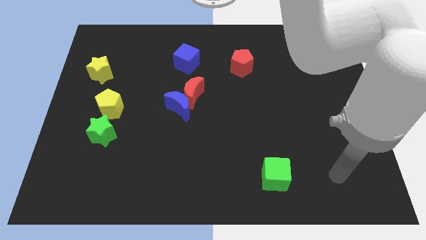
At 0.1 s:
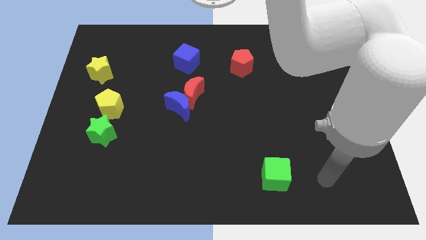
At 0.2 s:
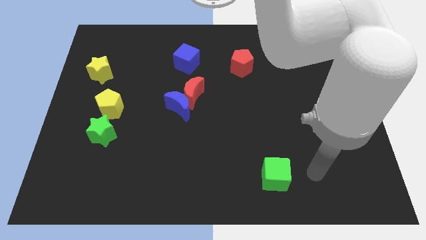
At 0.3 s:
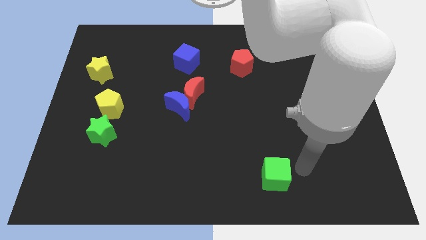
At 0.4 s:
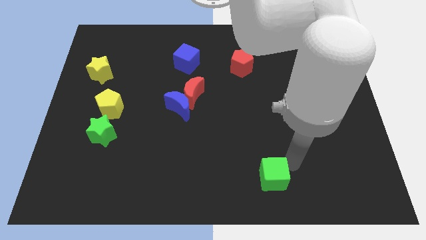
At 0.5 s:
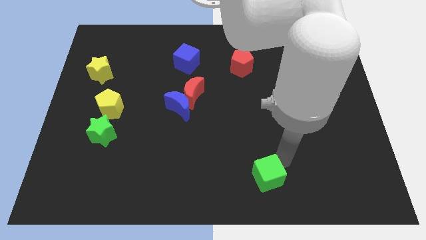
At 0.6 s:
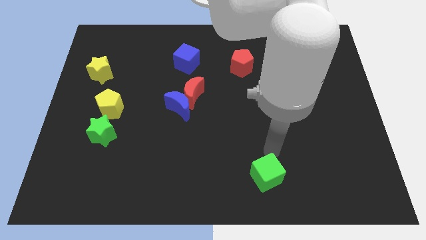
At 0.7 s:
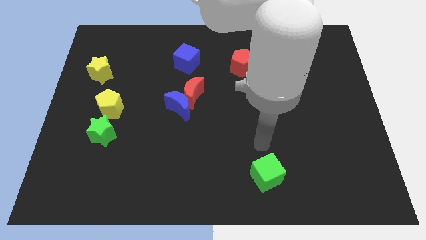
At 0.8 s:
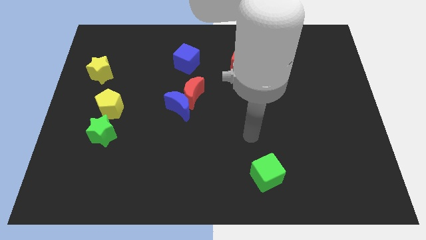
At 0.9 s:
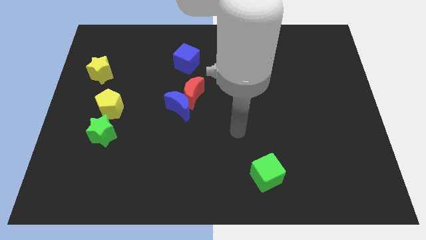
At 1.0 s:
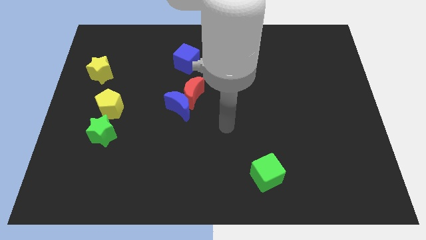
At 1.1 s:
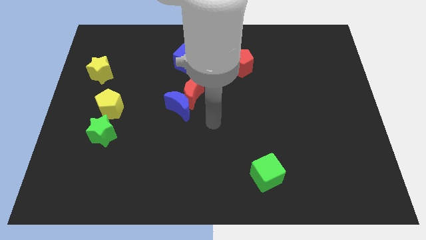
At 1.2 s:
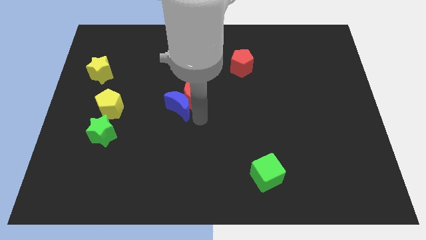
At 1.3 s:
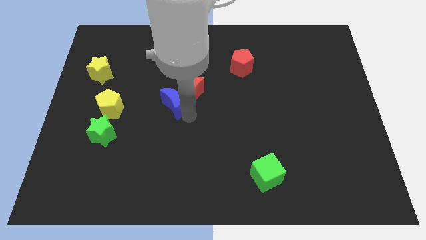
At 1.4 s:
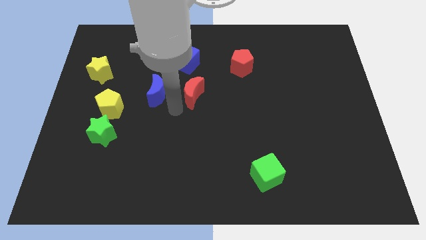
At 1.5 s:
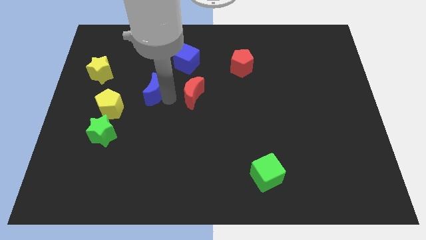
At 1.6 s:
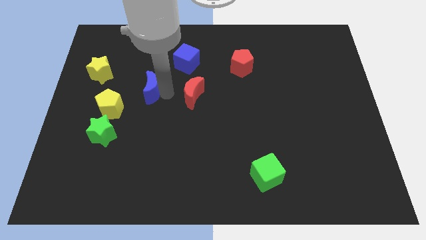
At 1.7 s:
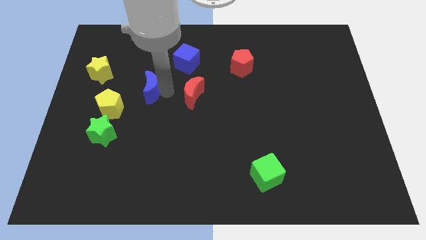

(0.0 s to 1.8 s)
pull the red moon apart from the blue moon

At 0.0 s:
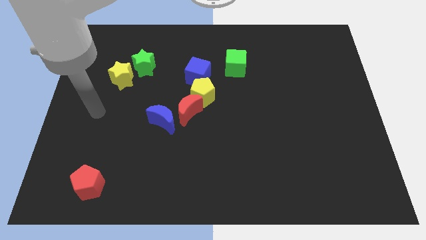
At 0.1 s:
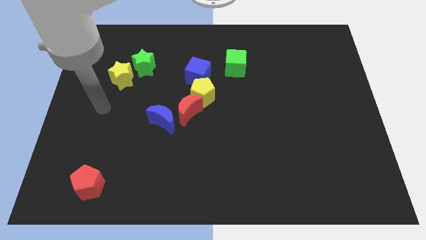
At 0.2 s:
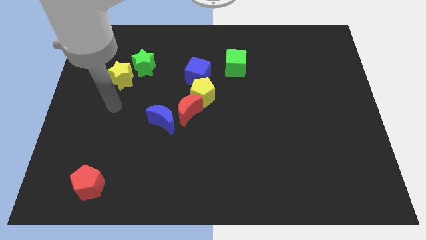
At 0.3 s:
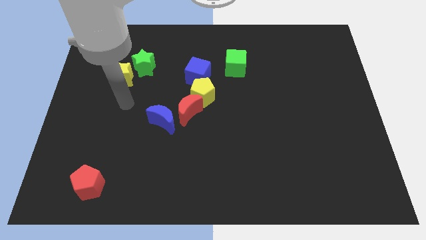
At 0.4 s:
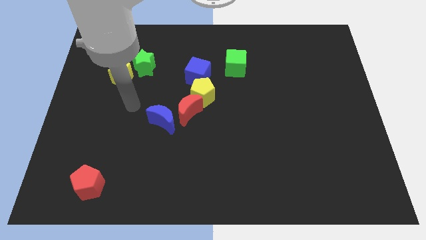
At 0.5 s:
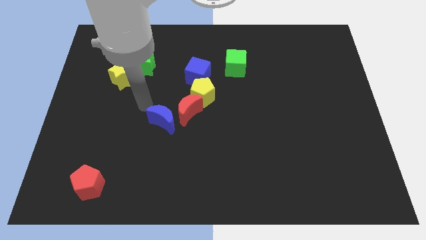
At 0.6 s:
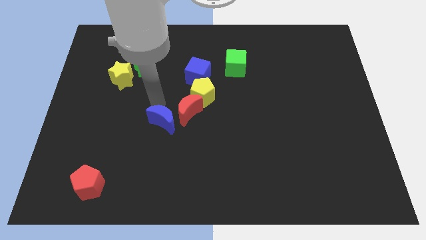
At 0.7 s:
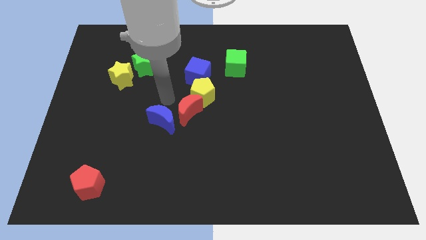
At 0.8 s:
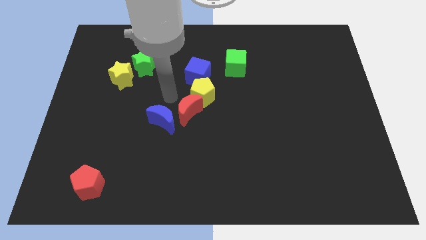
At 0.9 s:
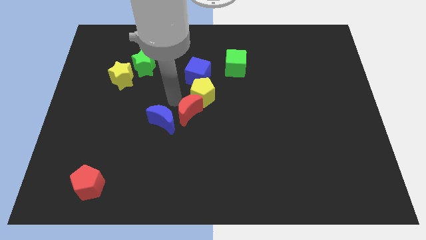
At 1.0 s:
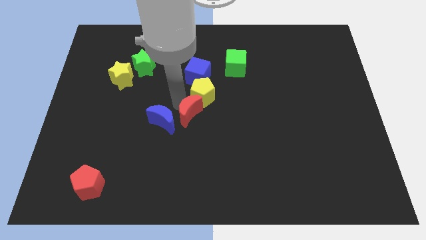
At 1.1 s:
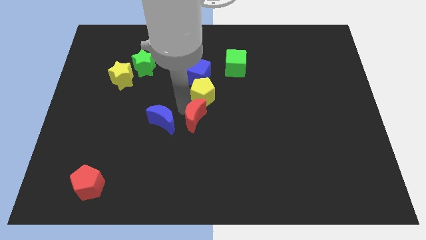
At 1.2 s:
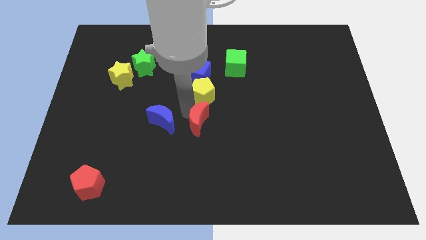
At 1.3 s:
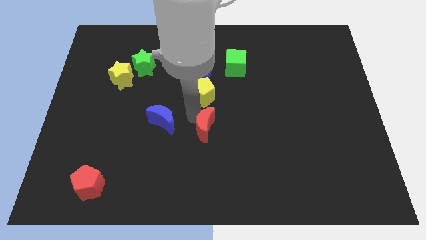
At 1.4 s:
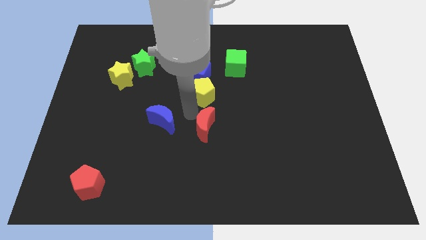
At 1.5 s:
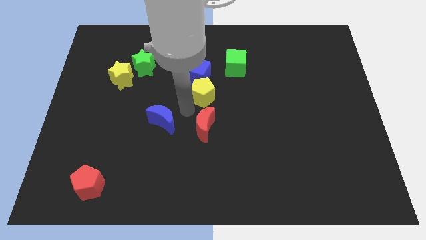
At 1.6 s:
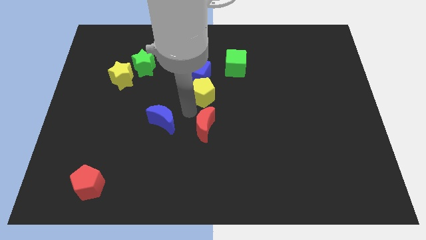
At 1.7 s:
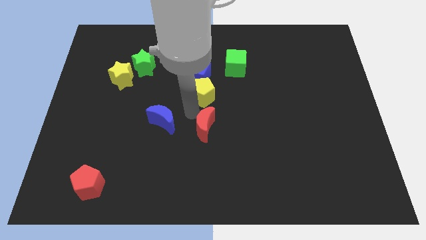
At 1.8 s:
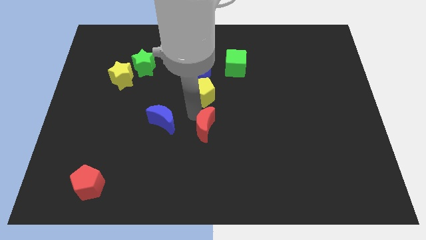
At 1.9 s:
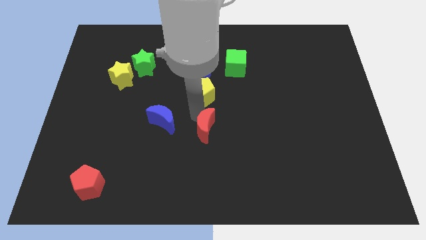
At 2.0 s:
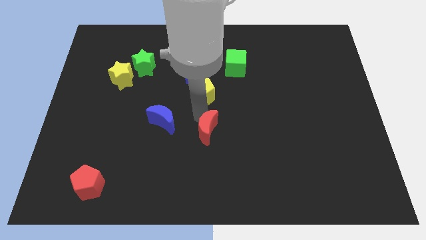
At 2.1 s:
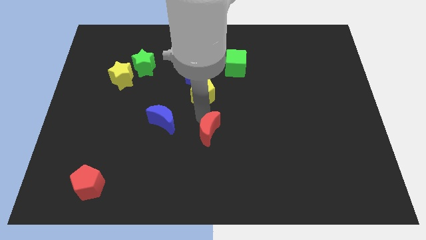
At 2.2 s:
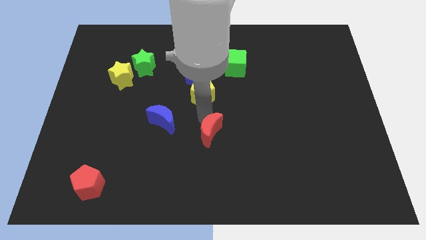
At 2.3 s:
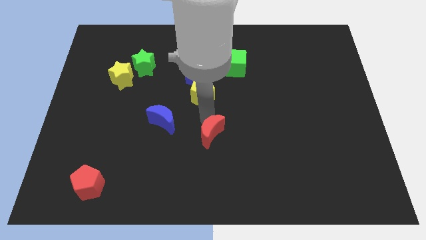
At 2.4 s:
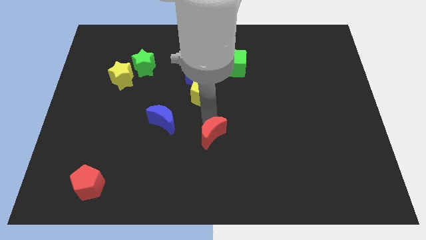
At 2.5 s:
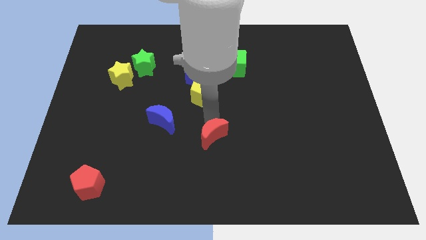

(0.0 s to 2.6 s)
pull the red moon apart from the yellow pentagon and blue moon

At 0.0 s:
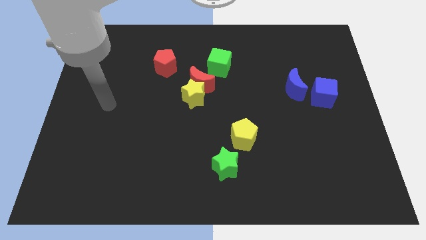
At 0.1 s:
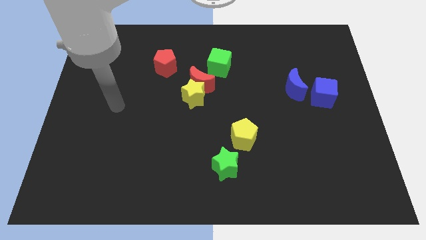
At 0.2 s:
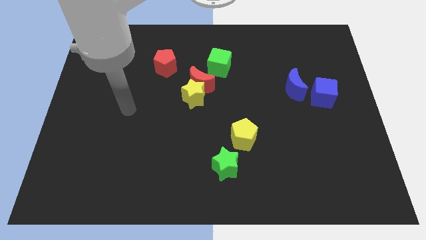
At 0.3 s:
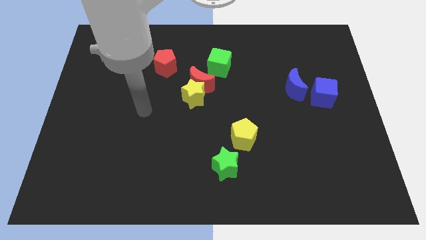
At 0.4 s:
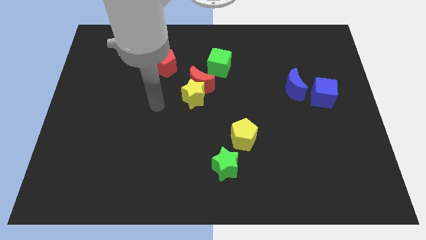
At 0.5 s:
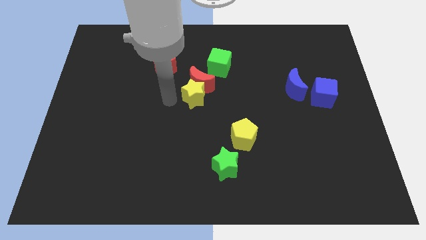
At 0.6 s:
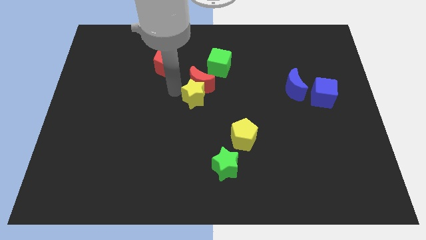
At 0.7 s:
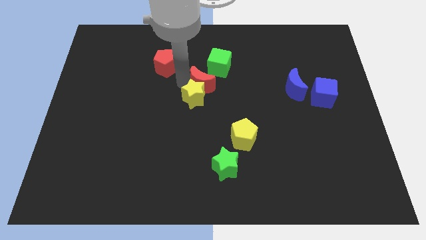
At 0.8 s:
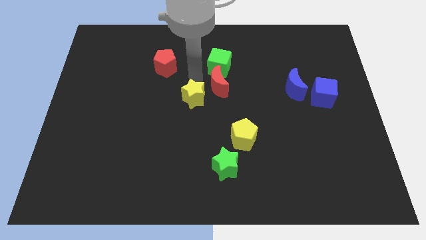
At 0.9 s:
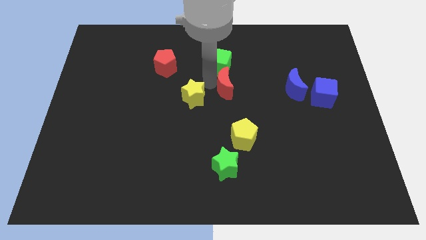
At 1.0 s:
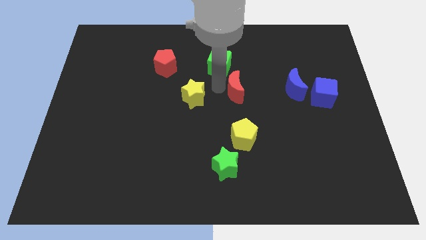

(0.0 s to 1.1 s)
pull the yellow star apart from the red moon

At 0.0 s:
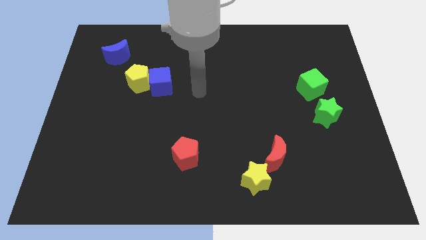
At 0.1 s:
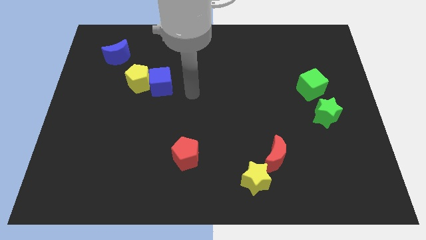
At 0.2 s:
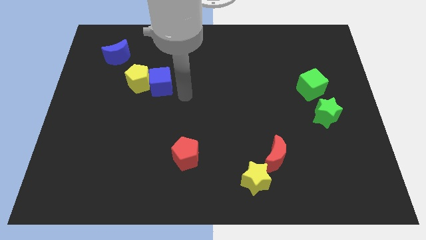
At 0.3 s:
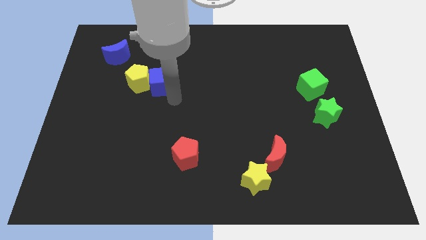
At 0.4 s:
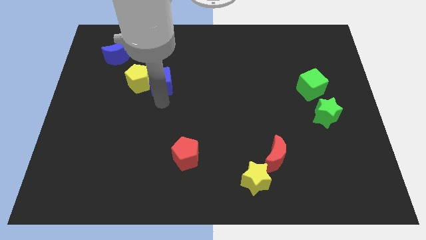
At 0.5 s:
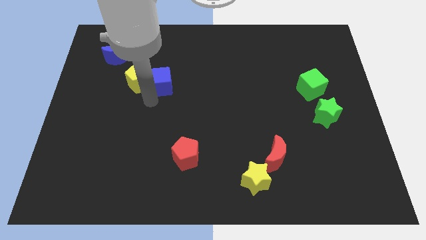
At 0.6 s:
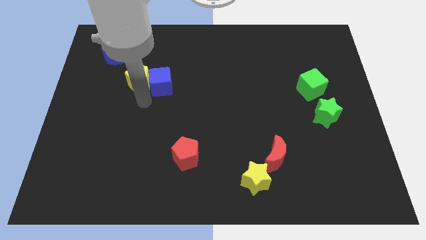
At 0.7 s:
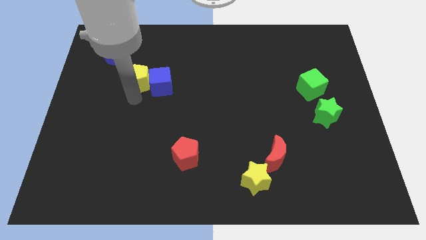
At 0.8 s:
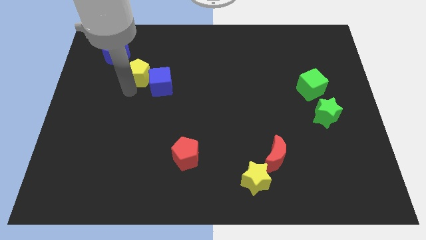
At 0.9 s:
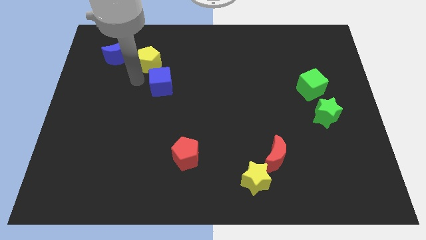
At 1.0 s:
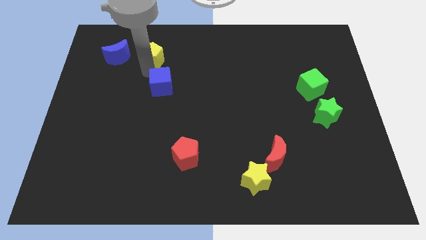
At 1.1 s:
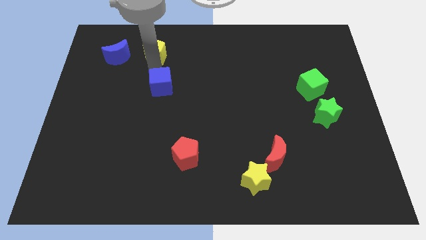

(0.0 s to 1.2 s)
separate the blue cube from the yellow pentagon

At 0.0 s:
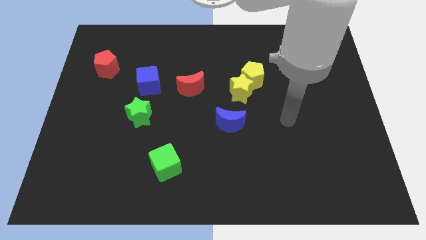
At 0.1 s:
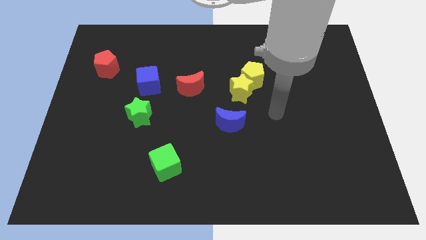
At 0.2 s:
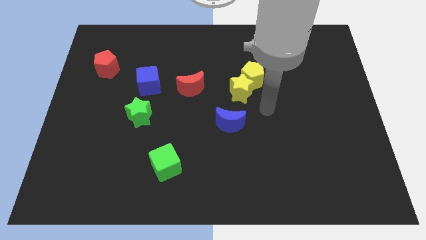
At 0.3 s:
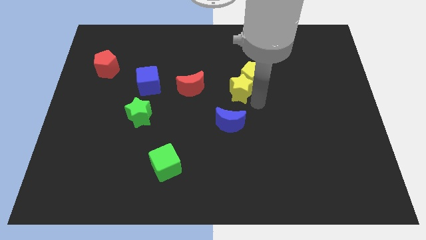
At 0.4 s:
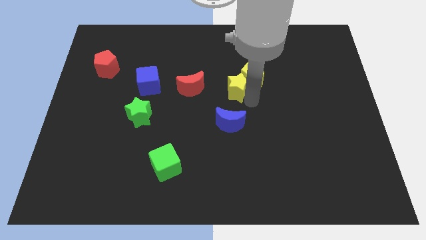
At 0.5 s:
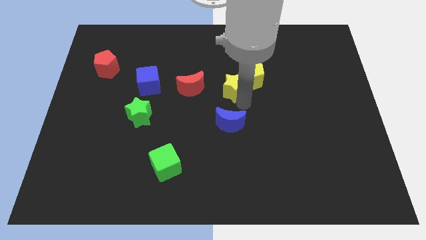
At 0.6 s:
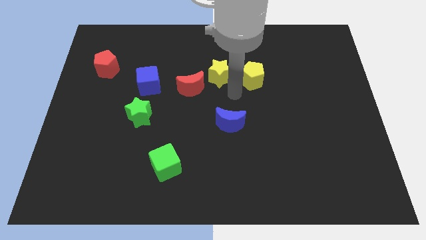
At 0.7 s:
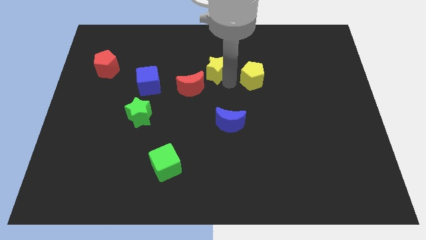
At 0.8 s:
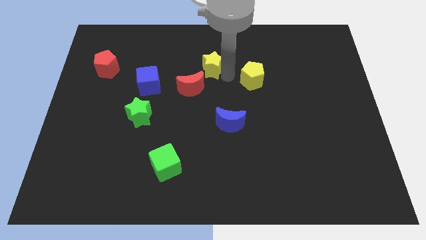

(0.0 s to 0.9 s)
move the yellow pentagon away from the yellow star

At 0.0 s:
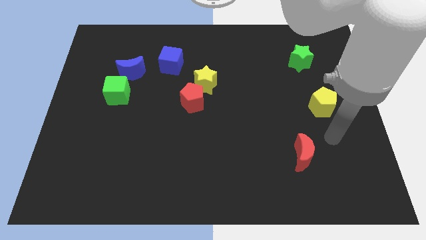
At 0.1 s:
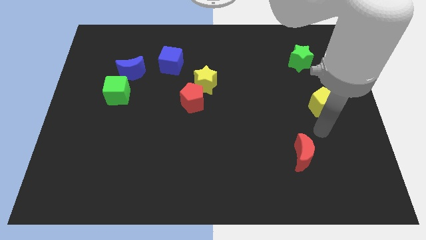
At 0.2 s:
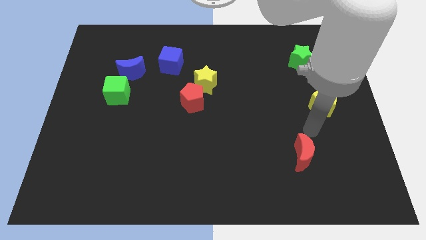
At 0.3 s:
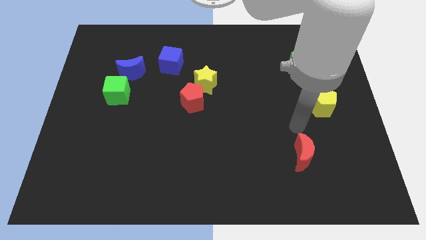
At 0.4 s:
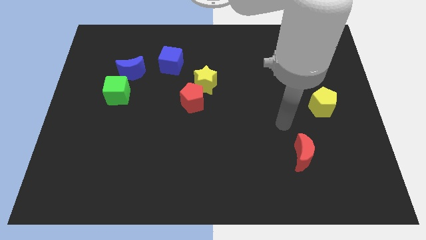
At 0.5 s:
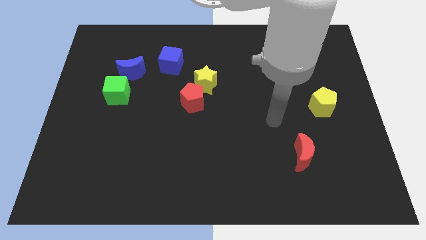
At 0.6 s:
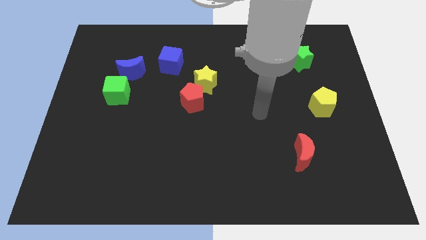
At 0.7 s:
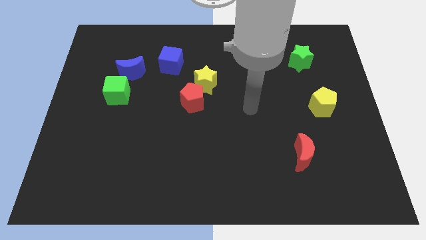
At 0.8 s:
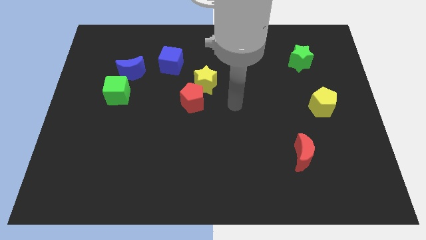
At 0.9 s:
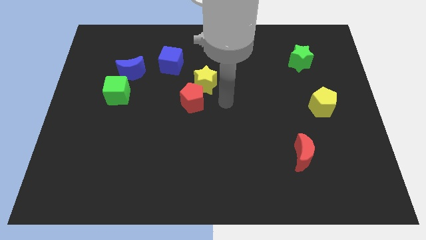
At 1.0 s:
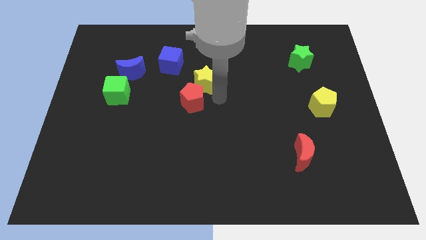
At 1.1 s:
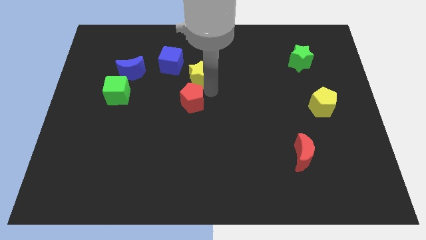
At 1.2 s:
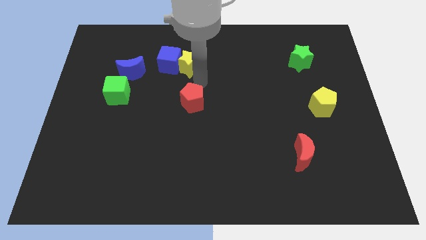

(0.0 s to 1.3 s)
separate the red pentagon from the yellow star

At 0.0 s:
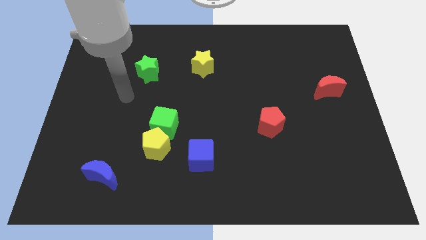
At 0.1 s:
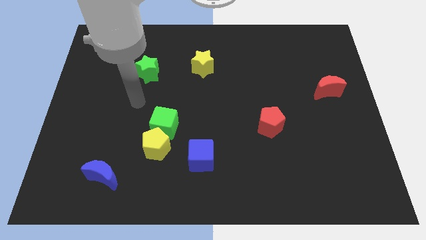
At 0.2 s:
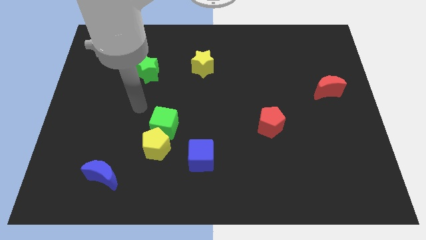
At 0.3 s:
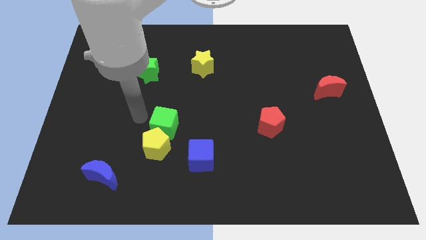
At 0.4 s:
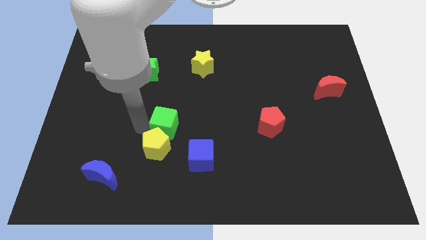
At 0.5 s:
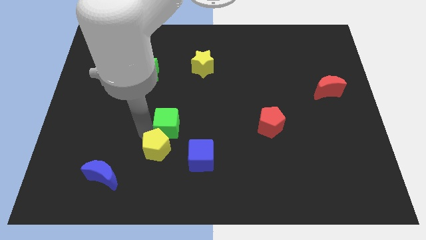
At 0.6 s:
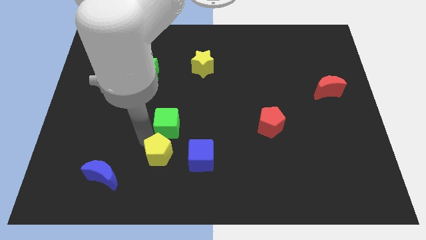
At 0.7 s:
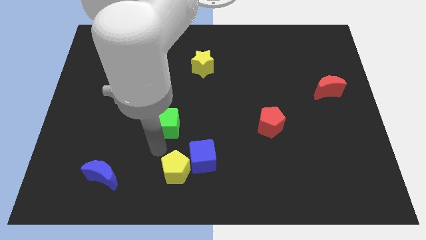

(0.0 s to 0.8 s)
move the green cube away from the yellow pentagon
